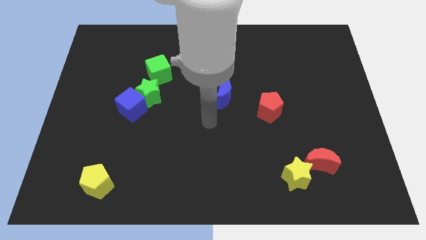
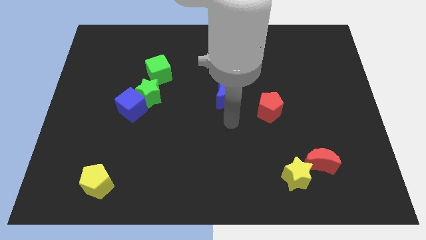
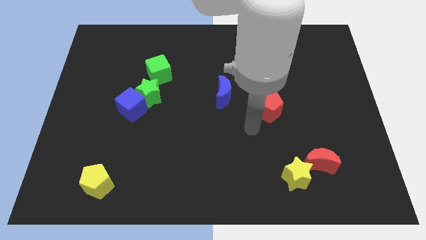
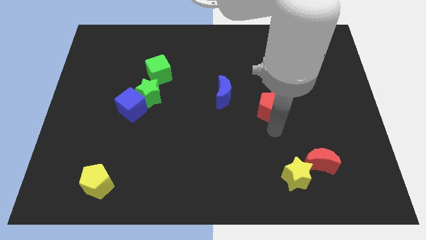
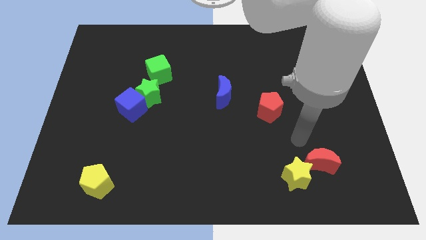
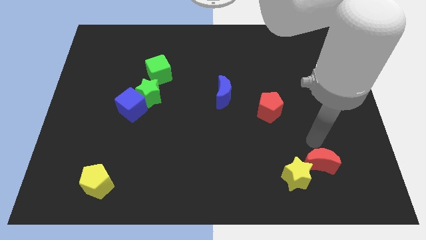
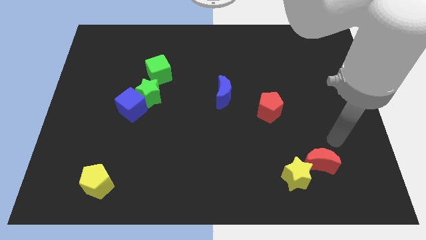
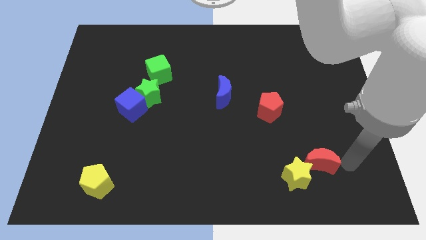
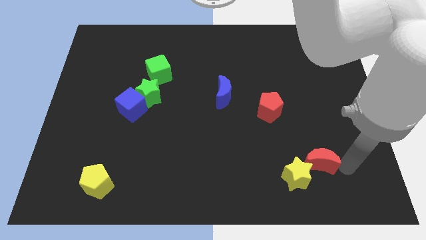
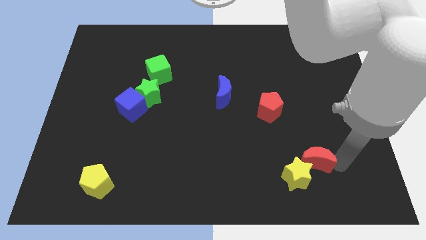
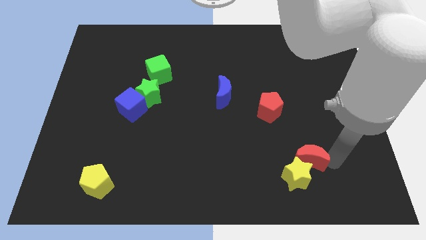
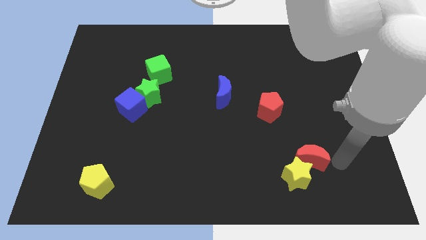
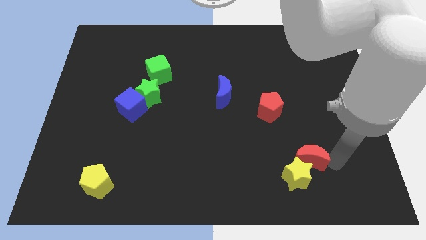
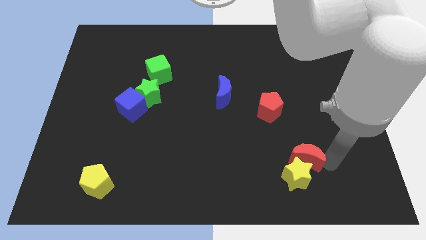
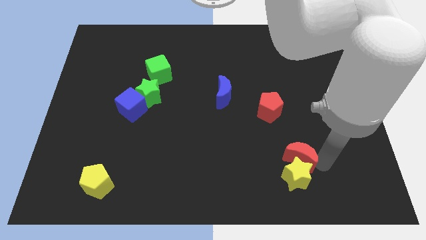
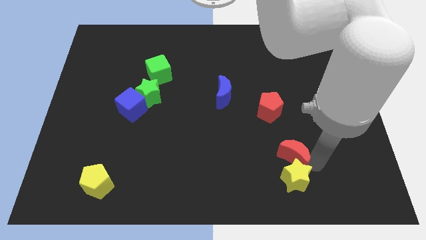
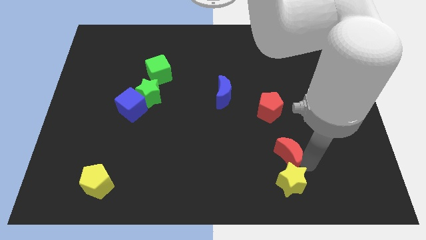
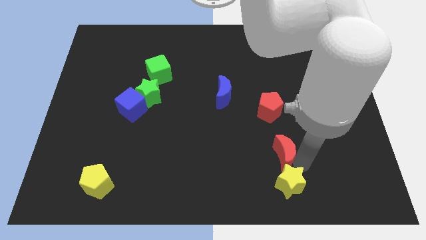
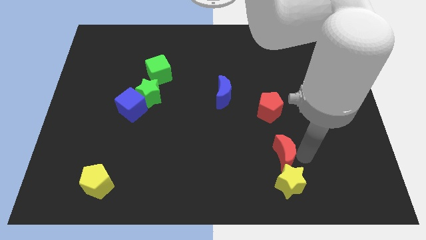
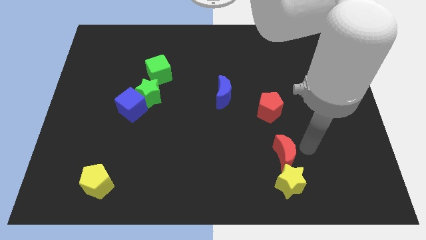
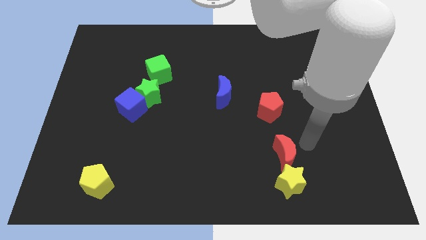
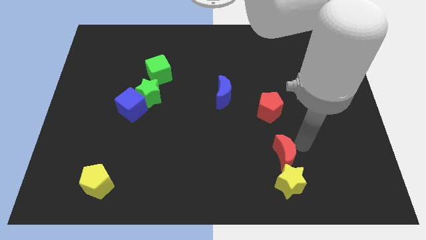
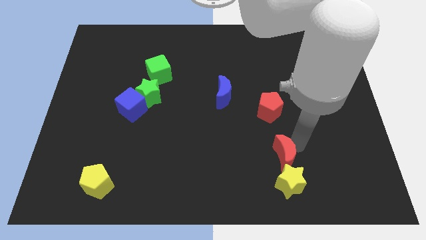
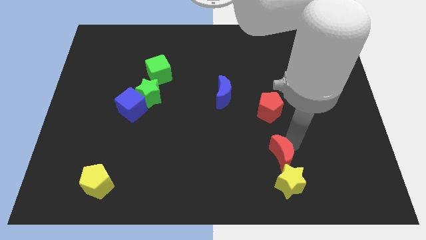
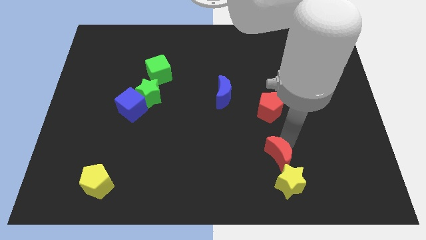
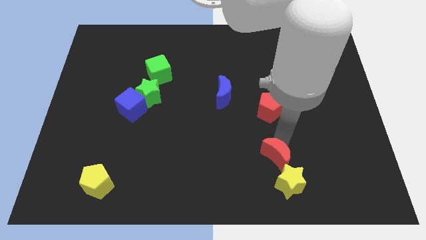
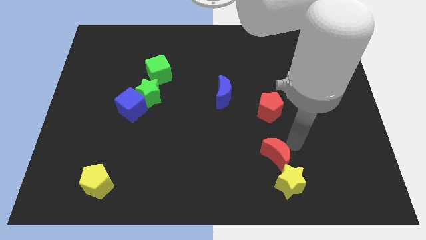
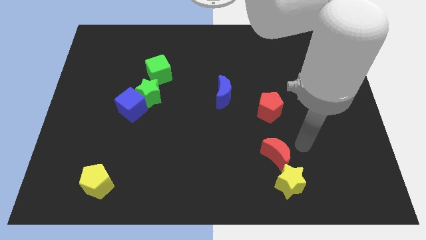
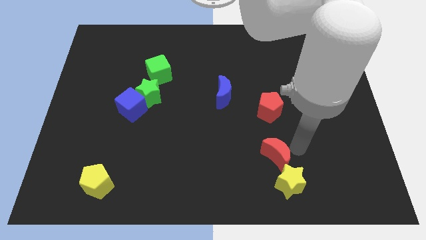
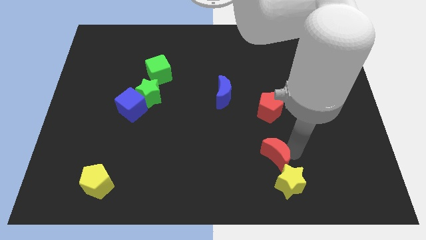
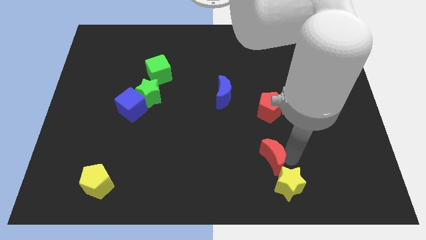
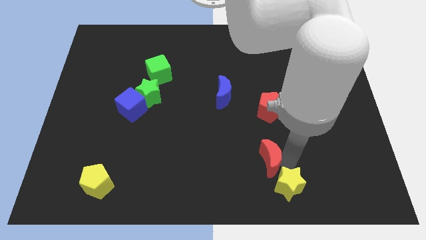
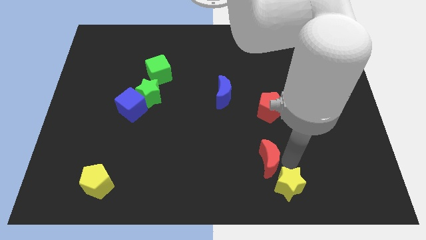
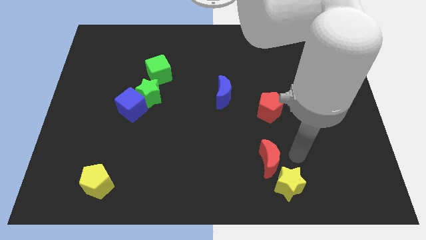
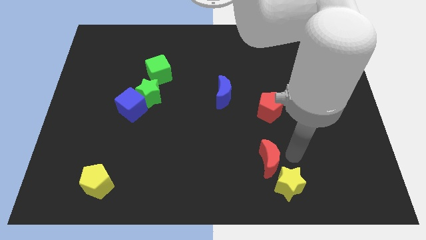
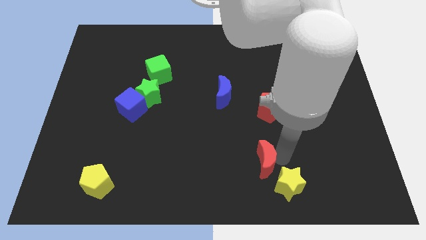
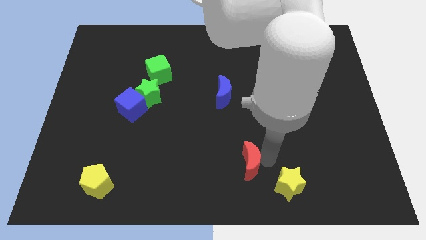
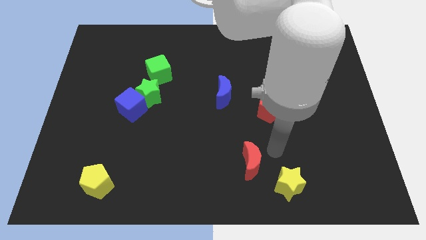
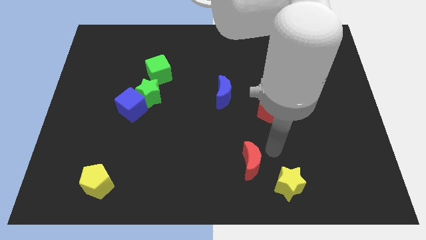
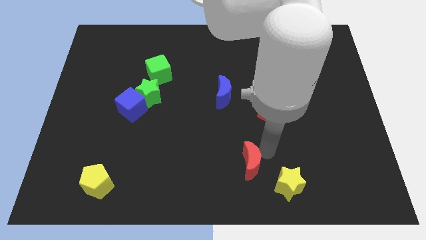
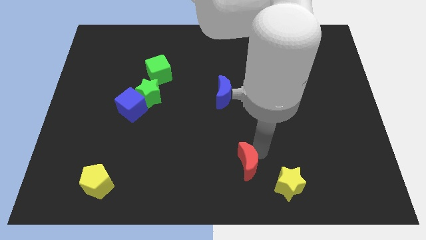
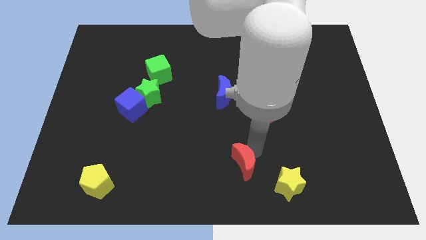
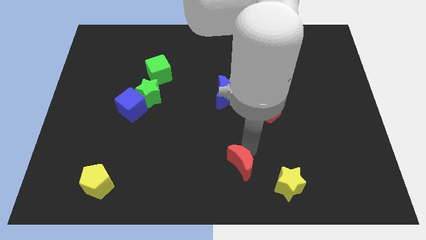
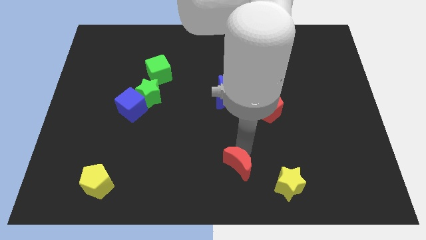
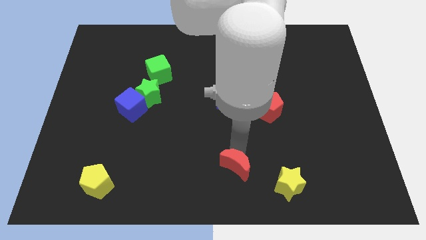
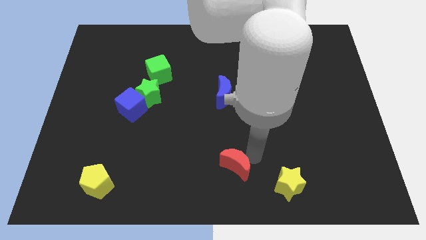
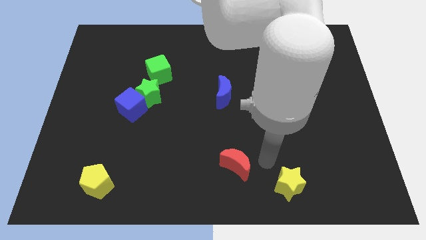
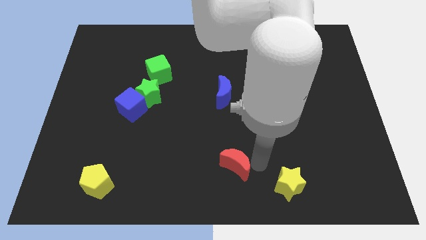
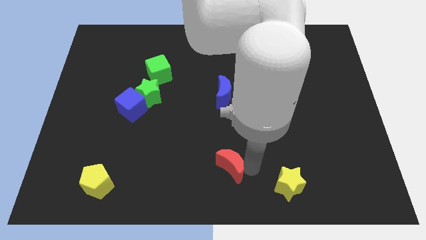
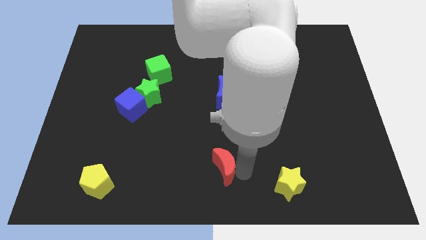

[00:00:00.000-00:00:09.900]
push the red moon to the left

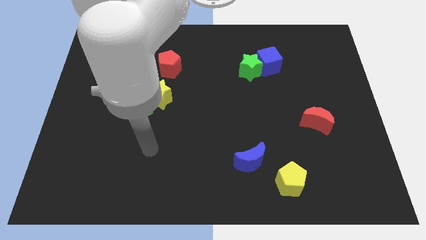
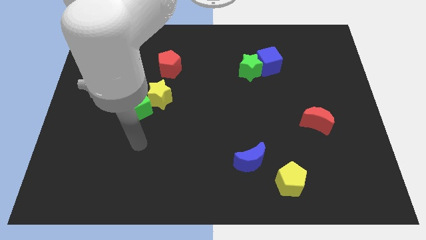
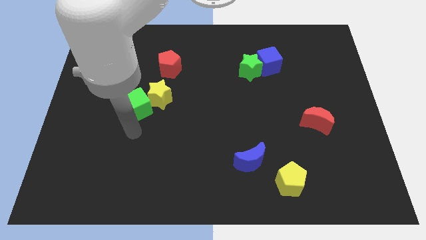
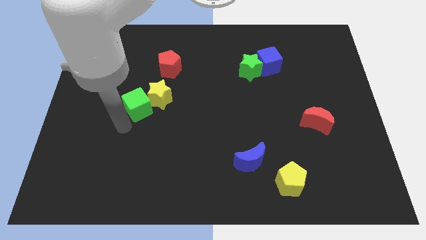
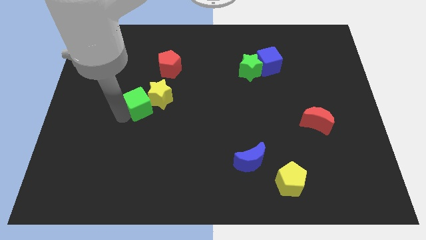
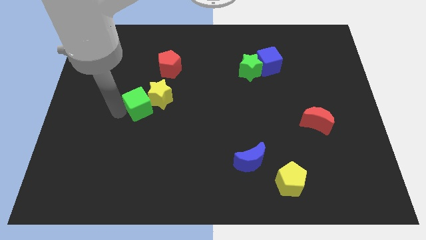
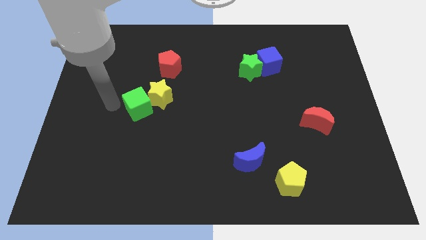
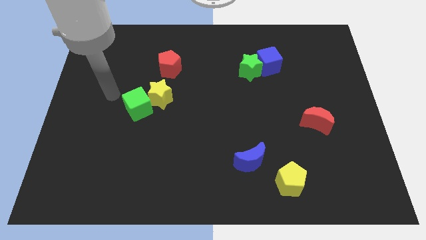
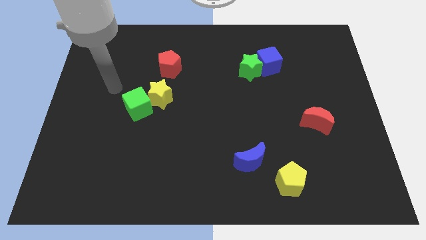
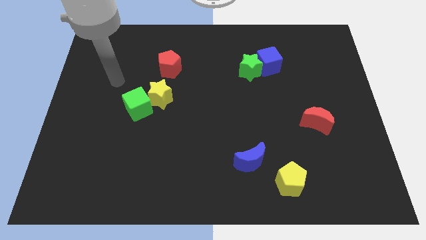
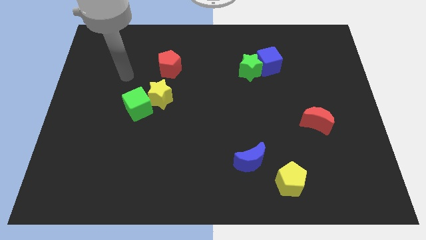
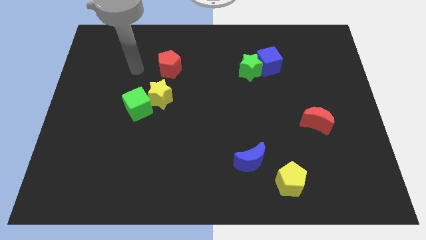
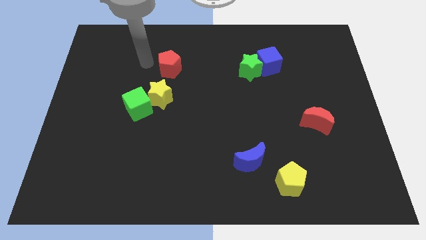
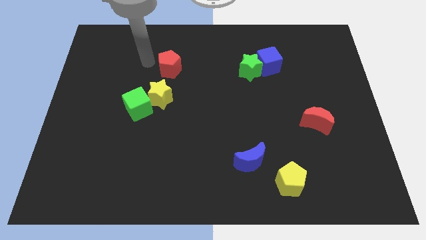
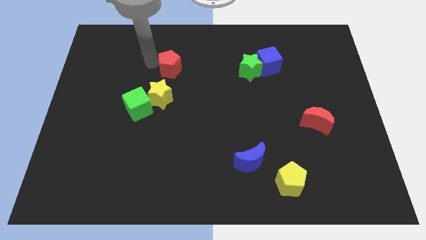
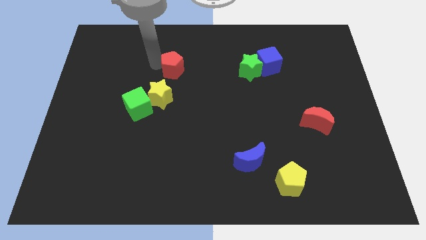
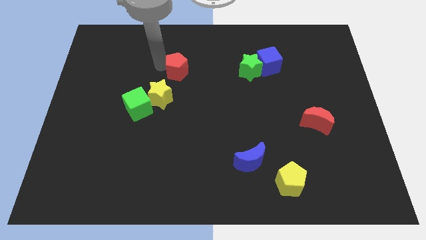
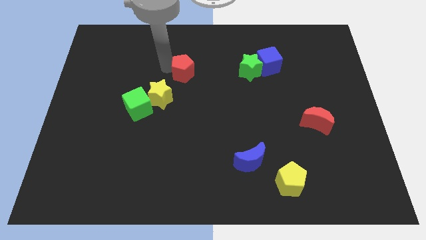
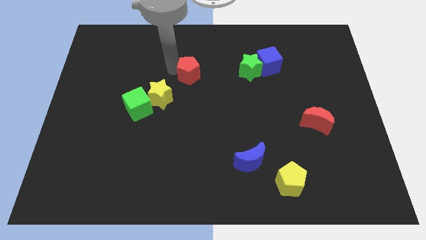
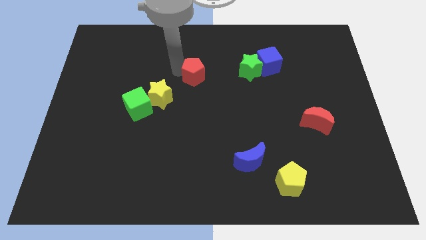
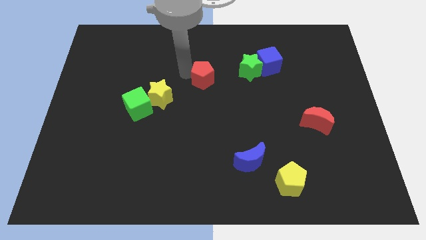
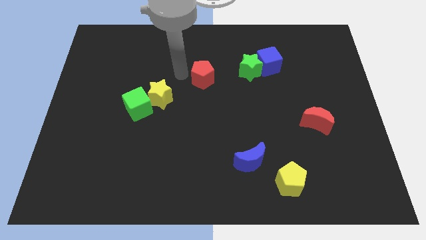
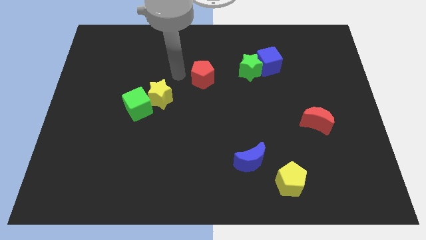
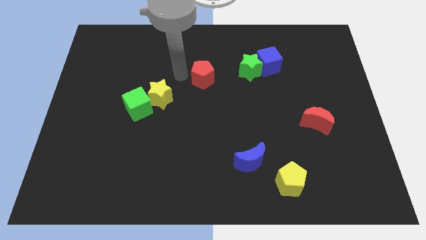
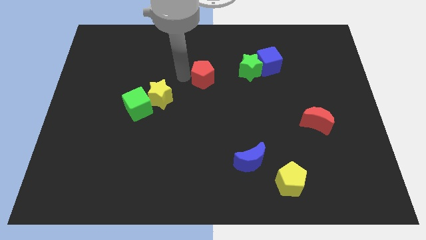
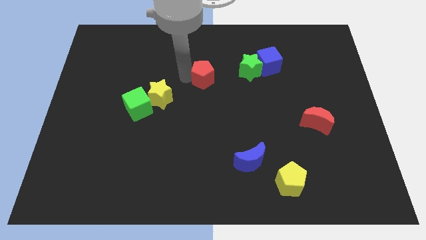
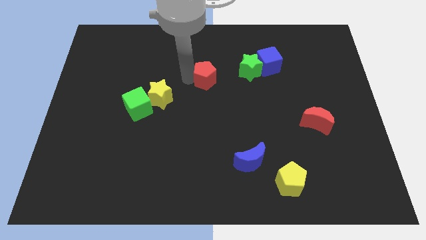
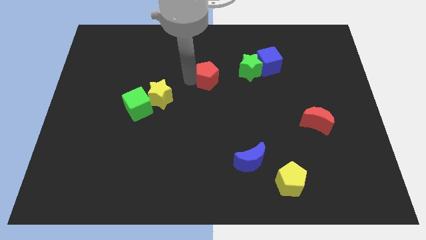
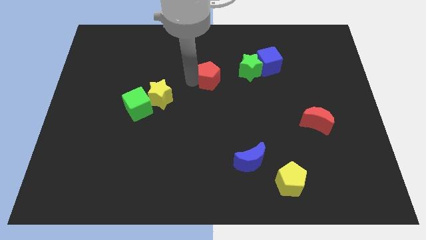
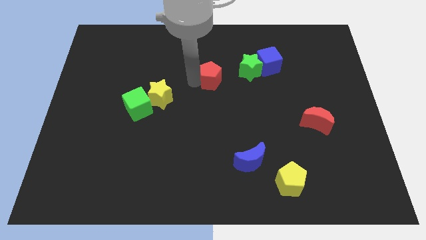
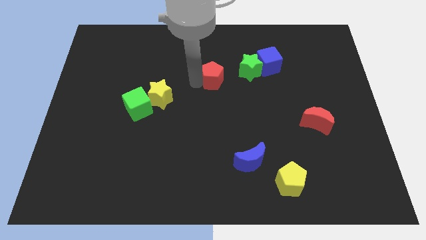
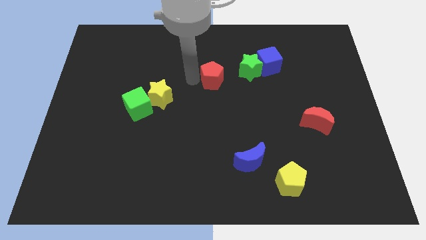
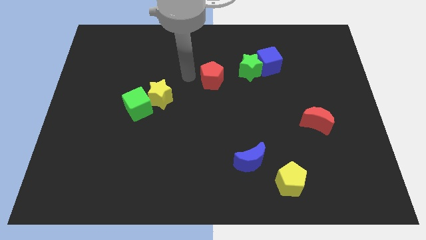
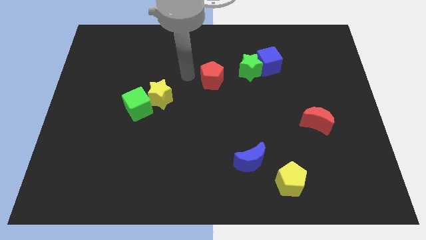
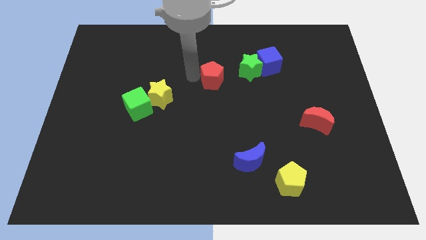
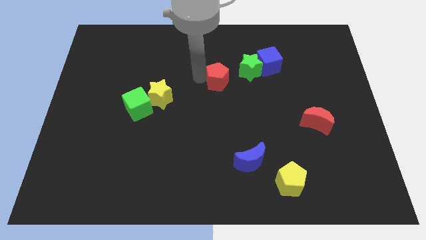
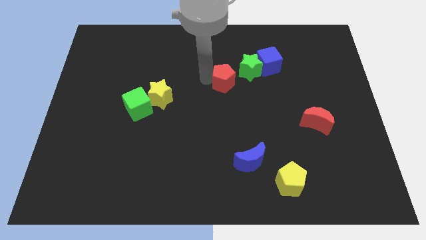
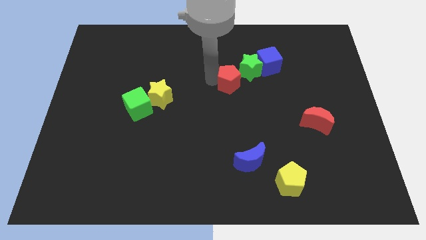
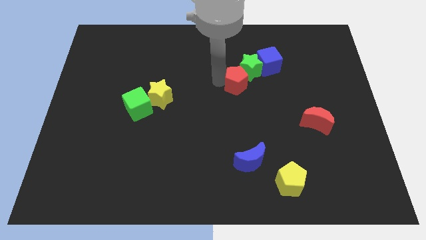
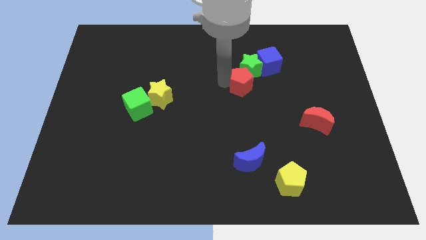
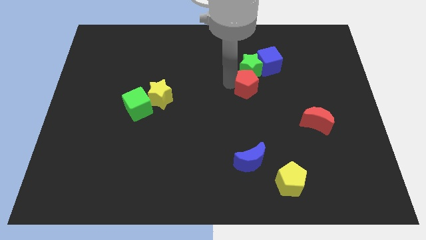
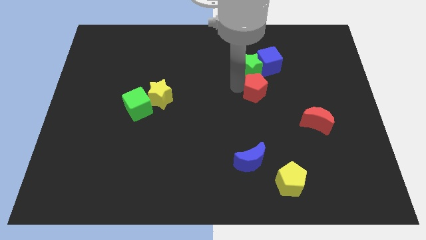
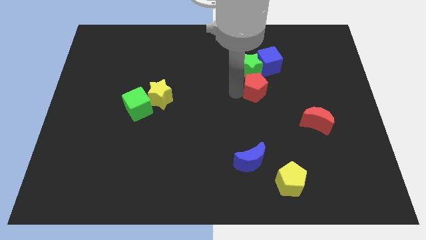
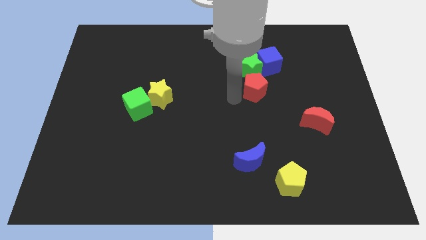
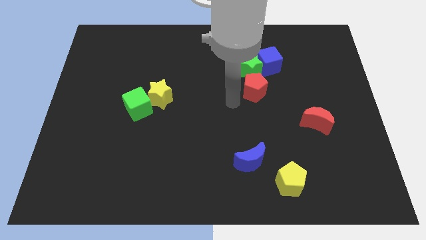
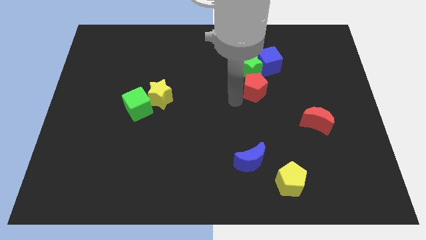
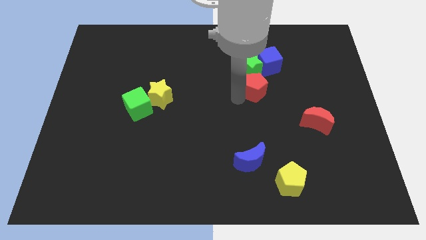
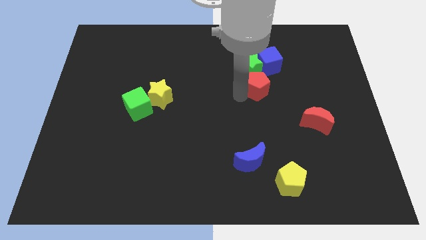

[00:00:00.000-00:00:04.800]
push the red pentagon right
